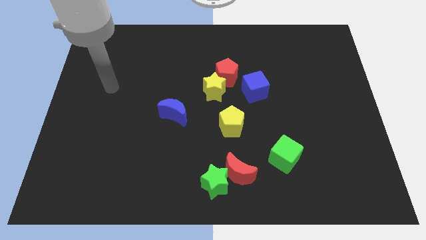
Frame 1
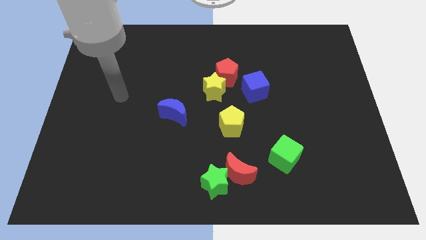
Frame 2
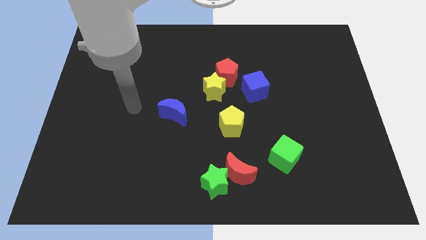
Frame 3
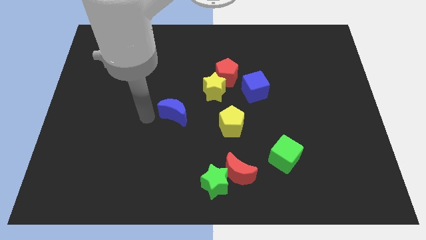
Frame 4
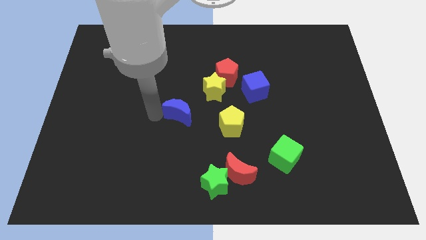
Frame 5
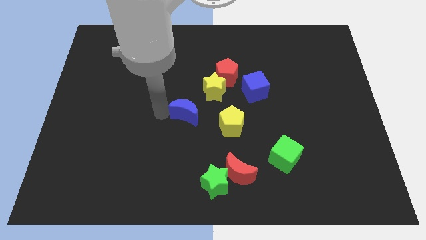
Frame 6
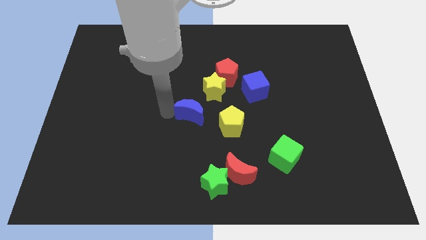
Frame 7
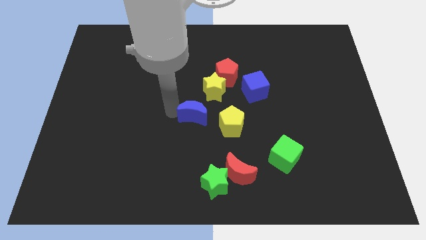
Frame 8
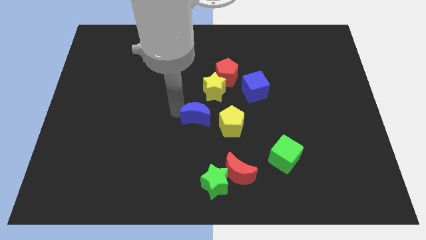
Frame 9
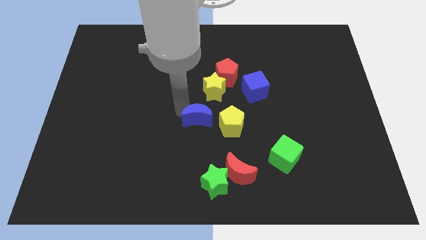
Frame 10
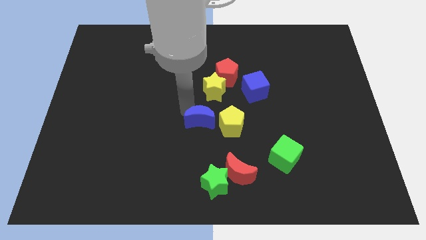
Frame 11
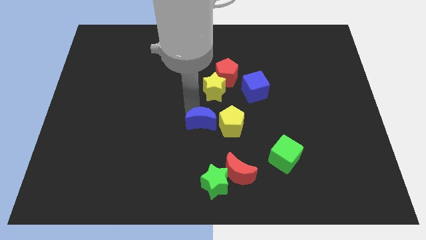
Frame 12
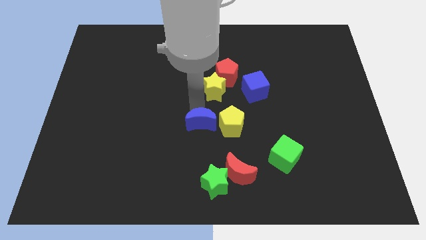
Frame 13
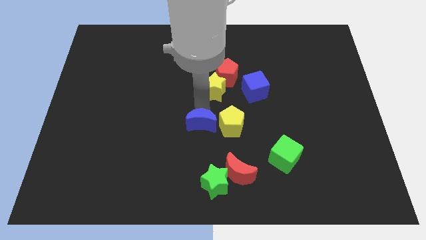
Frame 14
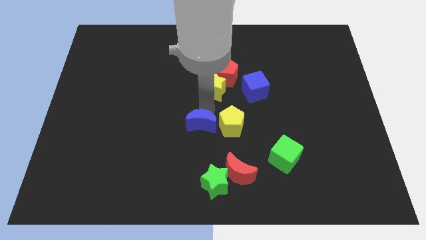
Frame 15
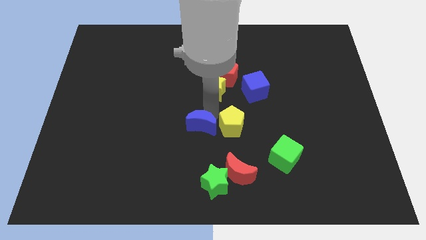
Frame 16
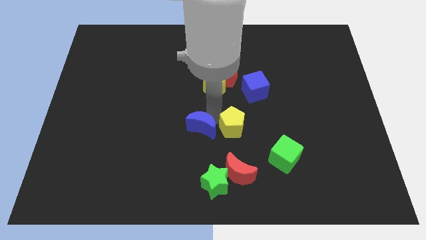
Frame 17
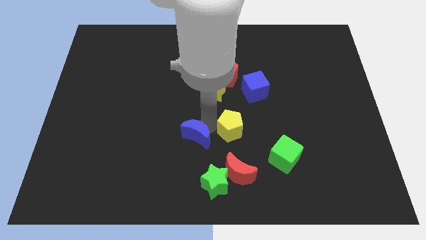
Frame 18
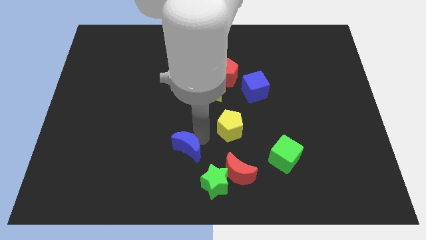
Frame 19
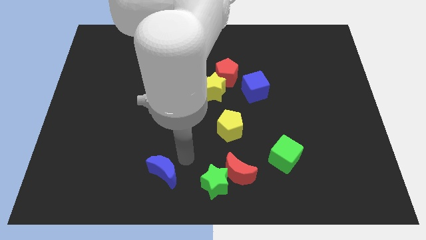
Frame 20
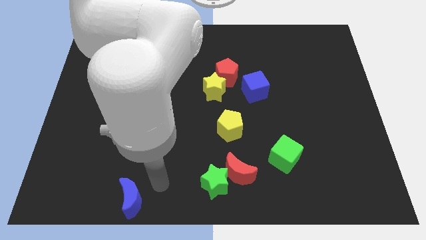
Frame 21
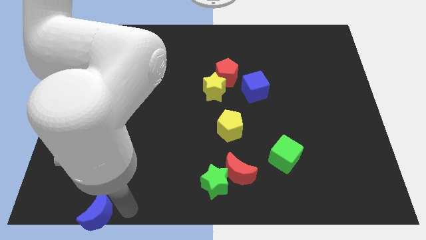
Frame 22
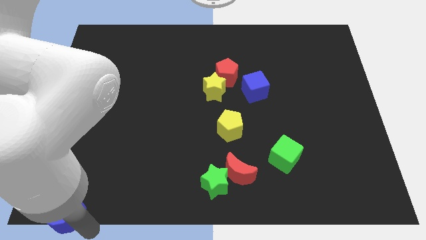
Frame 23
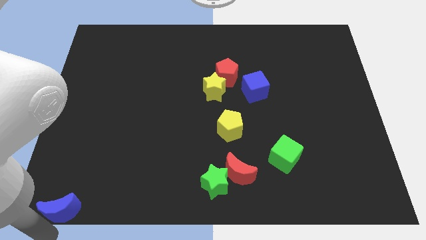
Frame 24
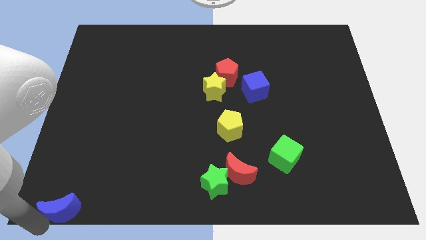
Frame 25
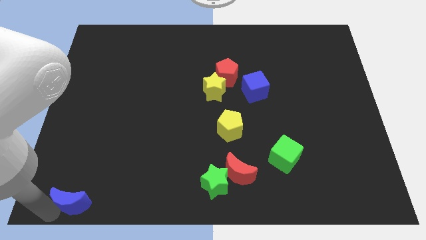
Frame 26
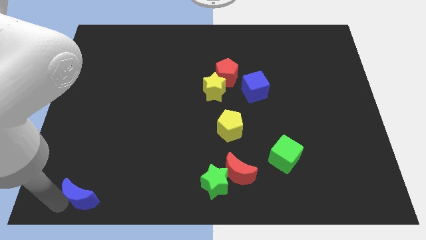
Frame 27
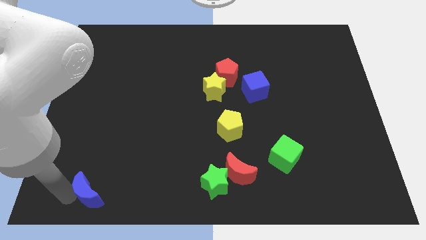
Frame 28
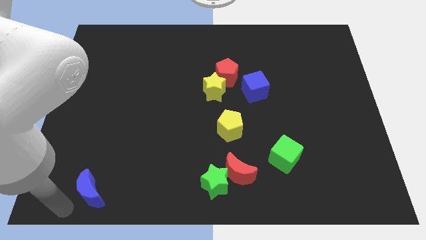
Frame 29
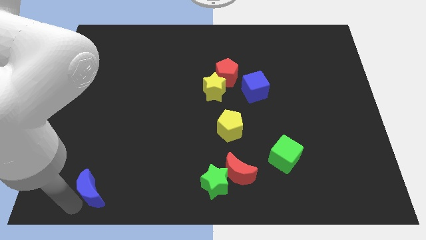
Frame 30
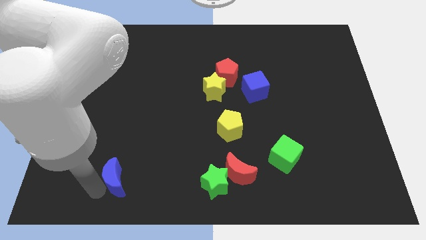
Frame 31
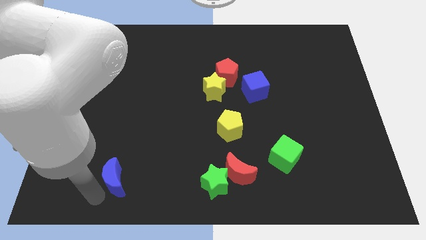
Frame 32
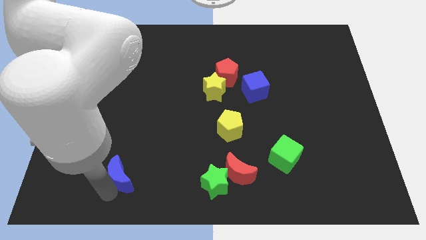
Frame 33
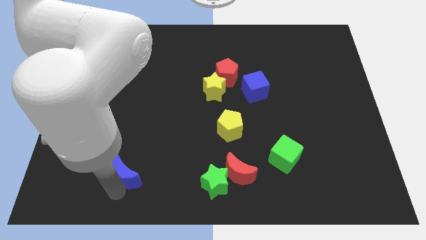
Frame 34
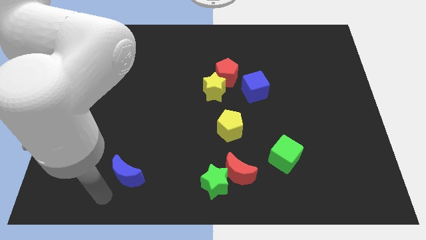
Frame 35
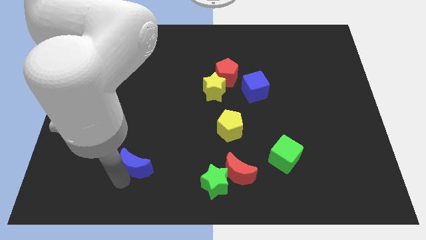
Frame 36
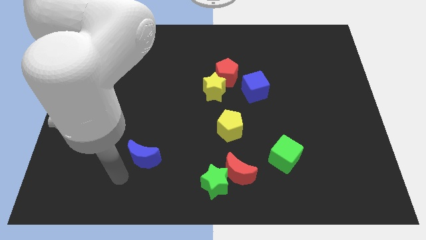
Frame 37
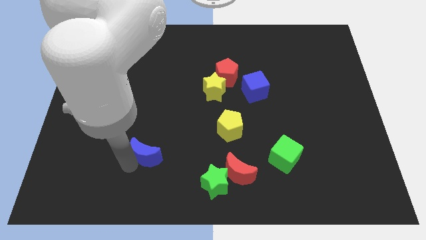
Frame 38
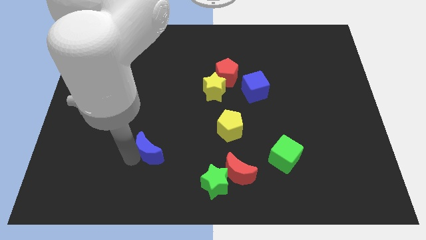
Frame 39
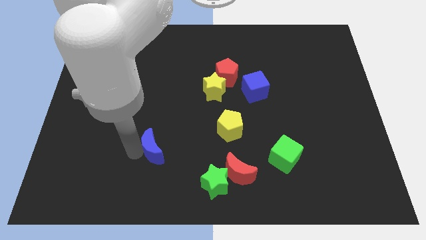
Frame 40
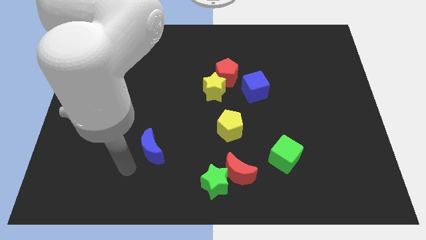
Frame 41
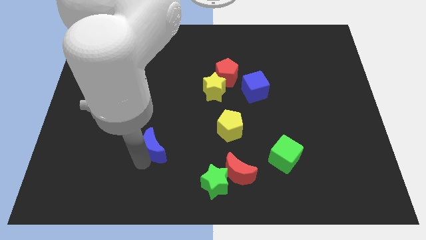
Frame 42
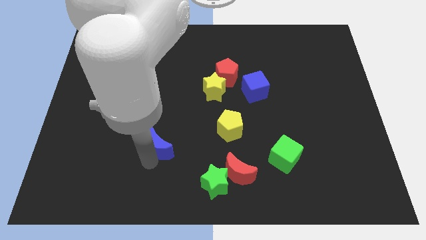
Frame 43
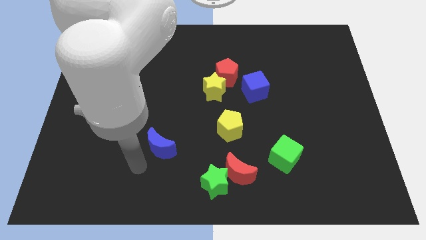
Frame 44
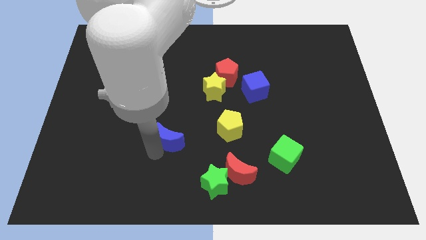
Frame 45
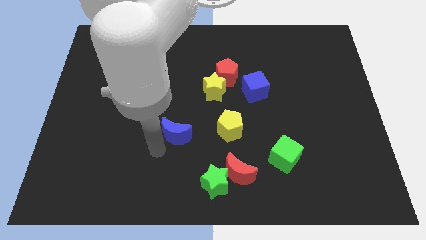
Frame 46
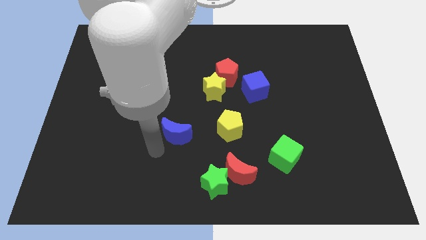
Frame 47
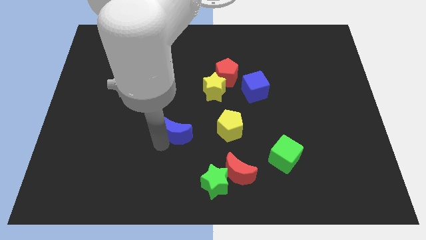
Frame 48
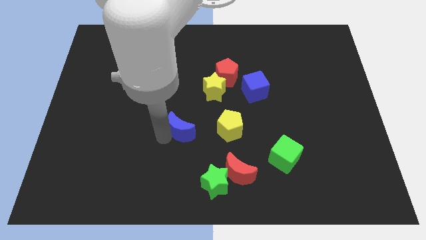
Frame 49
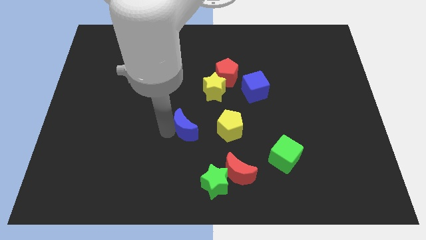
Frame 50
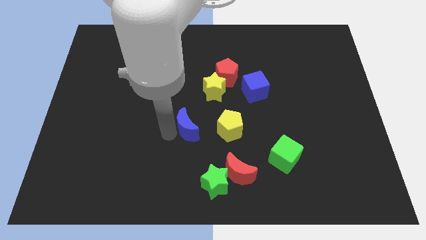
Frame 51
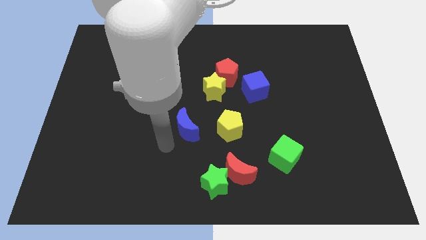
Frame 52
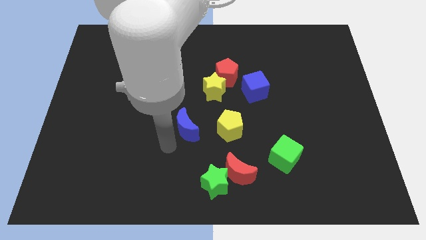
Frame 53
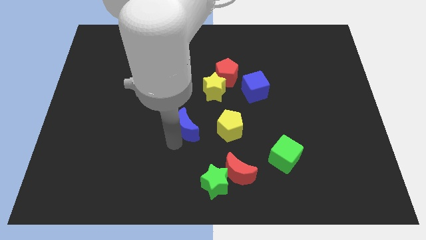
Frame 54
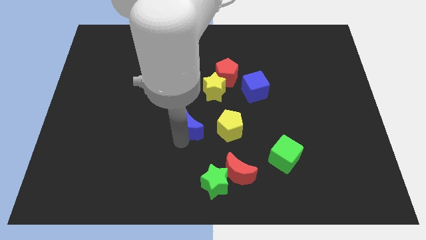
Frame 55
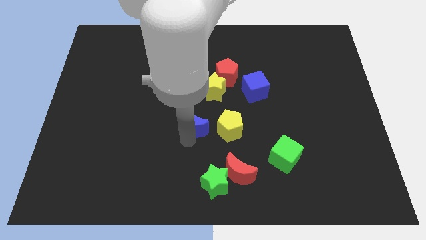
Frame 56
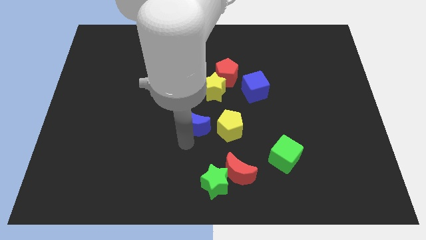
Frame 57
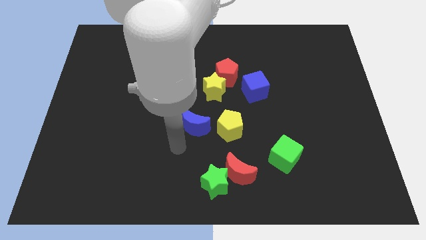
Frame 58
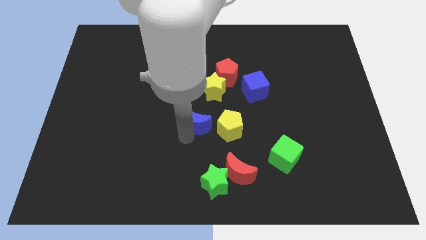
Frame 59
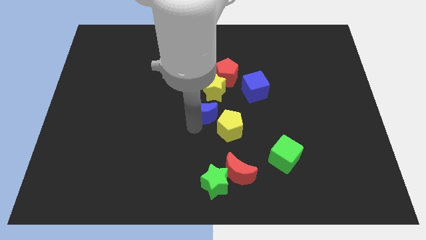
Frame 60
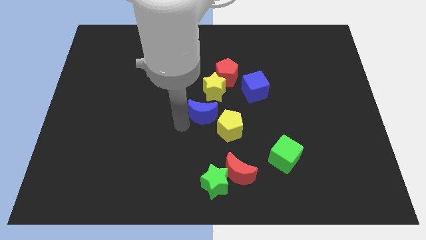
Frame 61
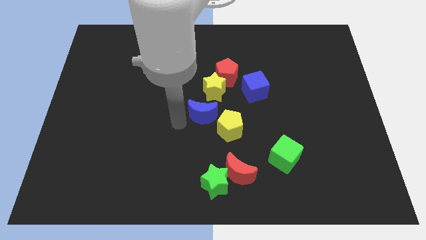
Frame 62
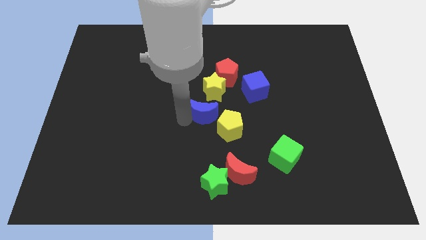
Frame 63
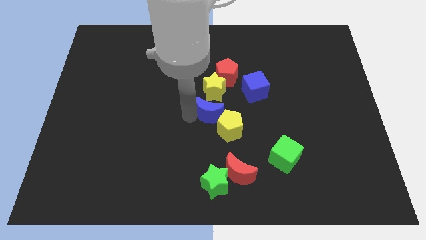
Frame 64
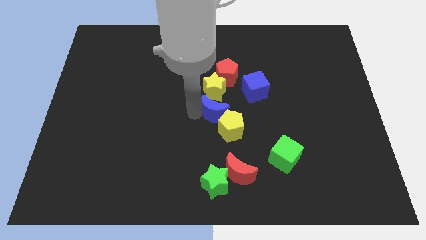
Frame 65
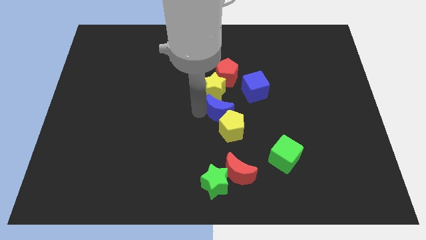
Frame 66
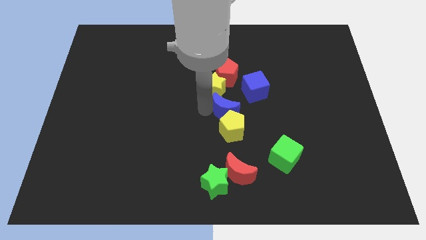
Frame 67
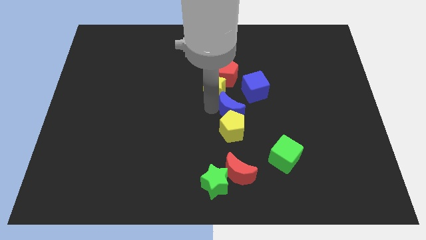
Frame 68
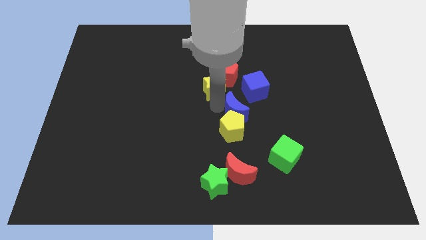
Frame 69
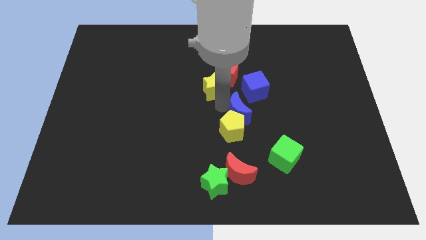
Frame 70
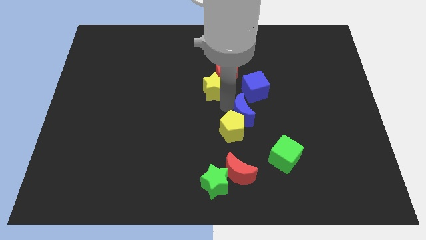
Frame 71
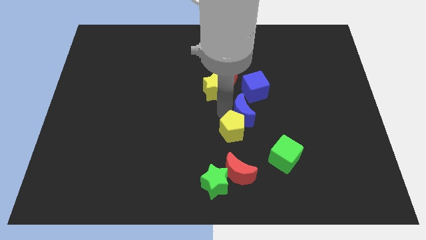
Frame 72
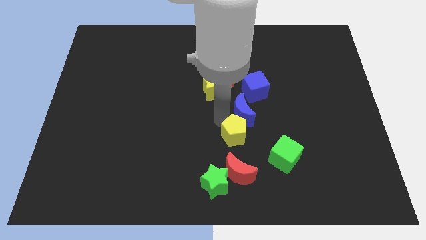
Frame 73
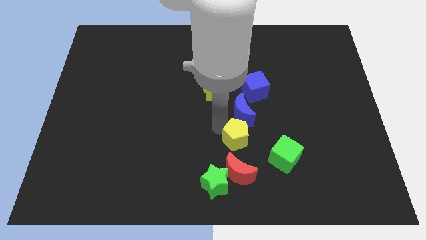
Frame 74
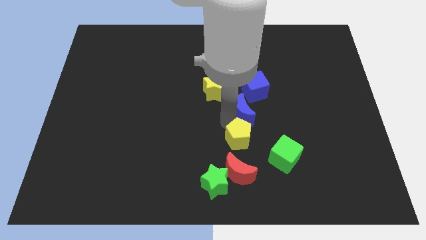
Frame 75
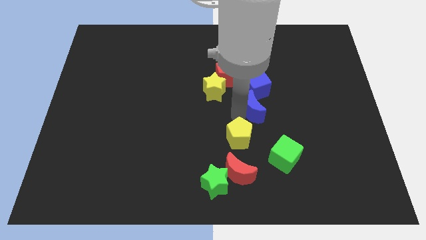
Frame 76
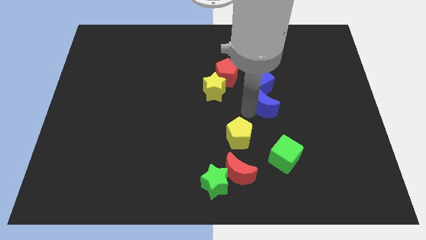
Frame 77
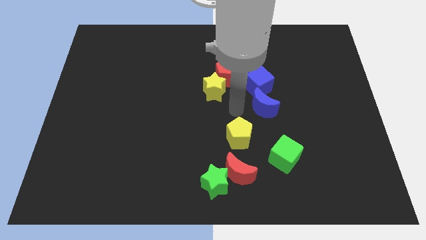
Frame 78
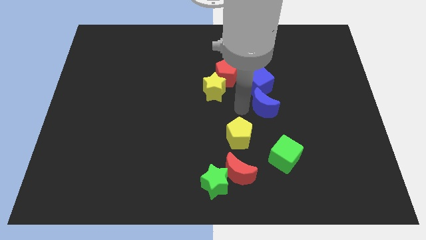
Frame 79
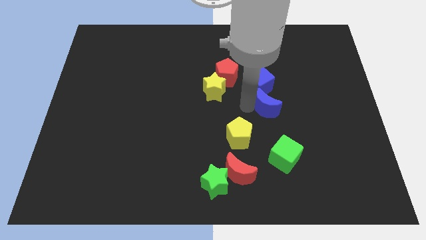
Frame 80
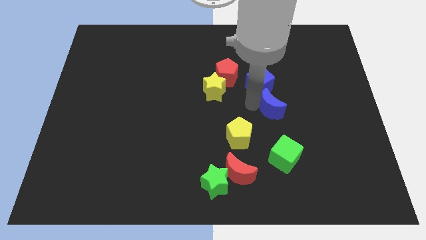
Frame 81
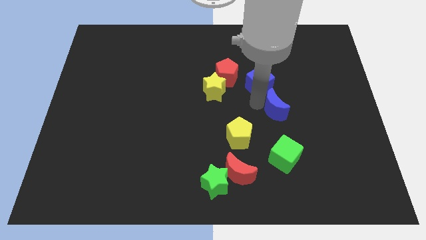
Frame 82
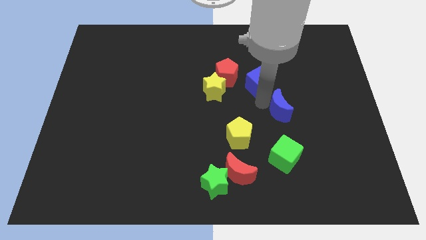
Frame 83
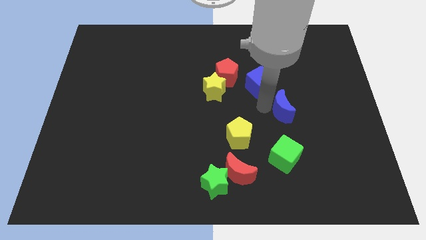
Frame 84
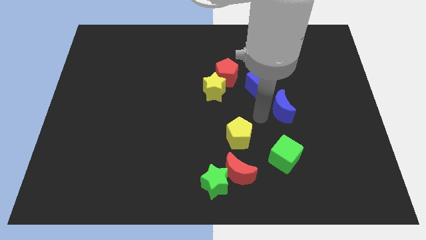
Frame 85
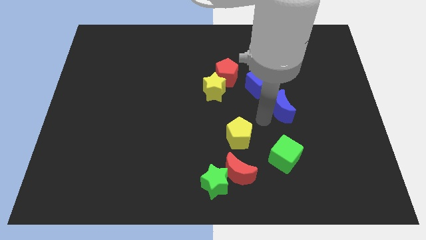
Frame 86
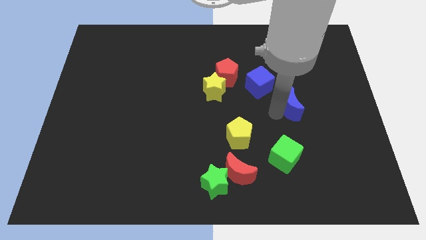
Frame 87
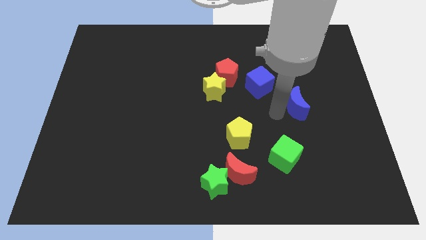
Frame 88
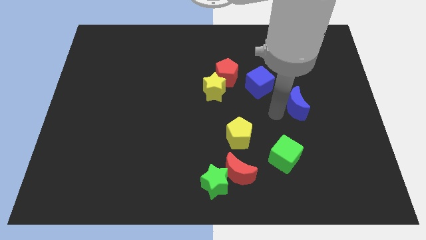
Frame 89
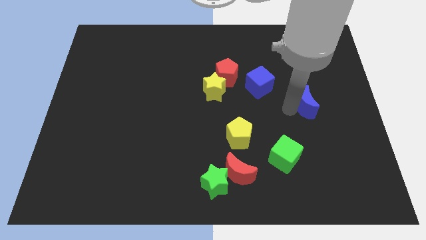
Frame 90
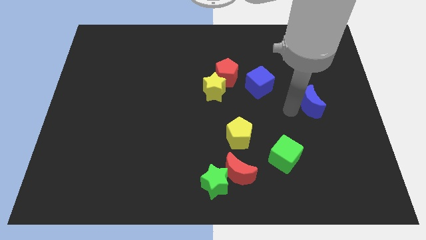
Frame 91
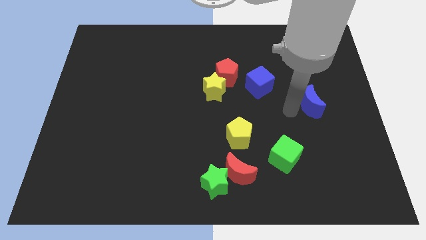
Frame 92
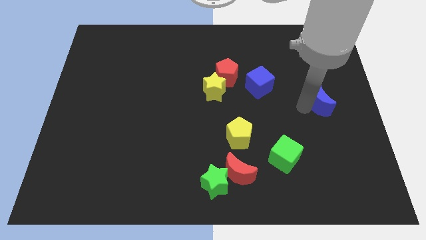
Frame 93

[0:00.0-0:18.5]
push the blue moon to the center right
